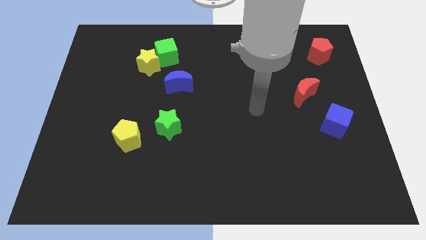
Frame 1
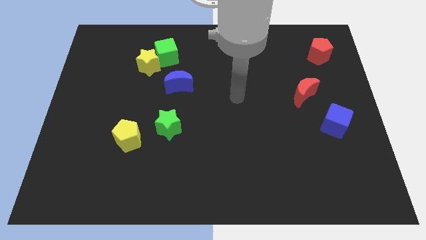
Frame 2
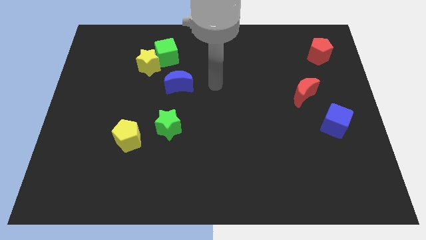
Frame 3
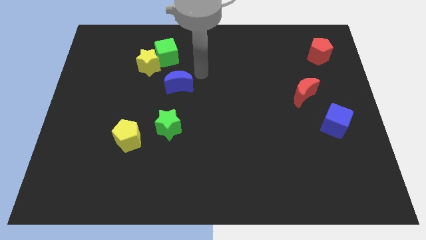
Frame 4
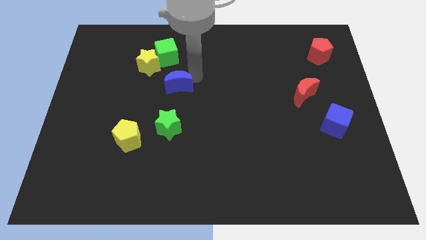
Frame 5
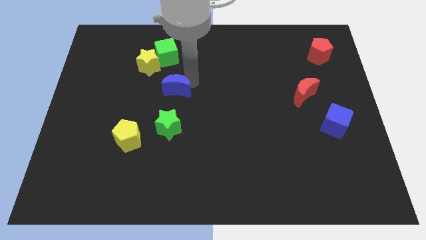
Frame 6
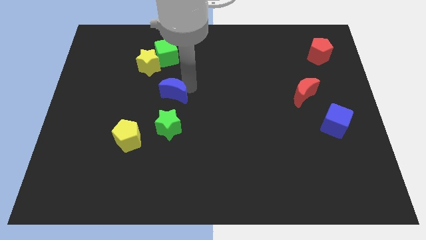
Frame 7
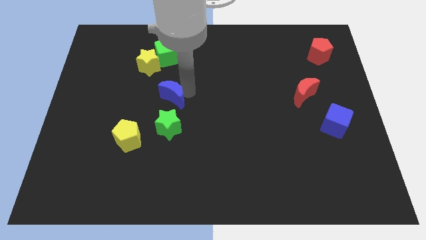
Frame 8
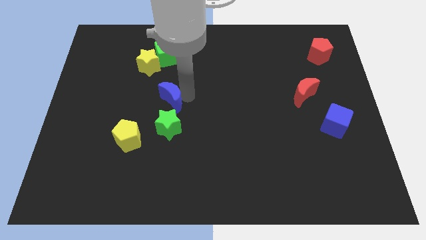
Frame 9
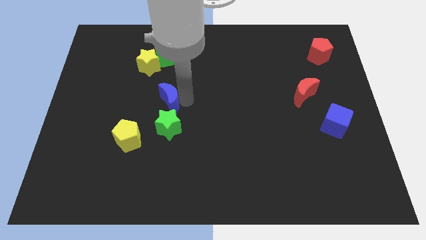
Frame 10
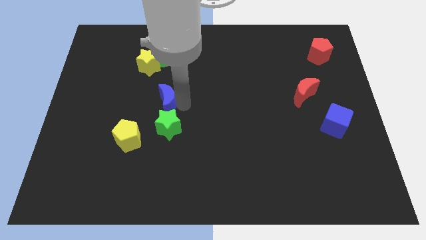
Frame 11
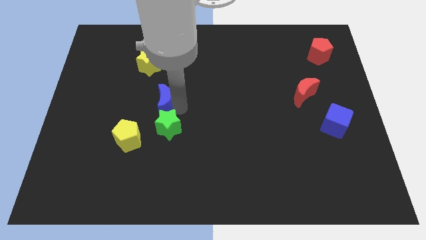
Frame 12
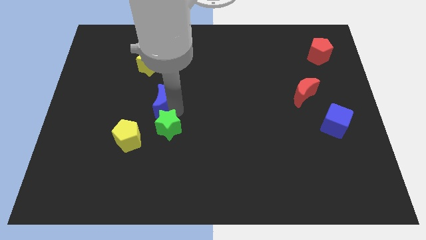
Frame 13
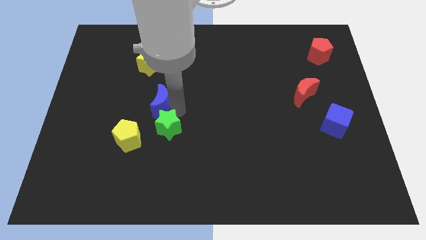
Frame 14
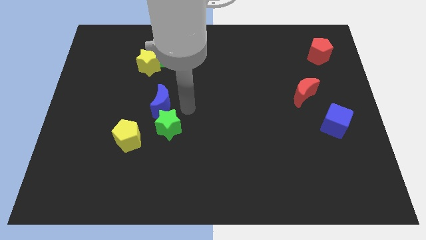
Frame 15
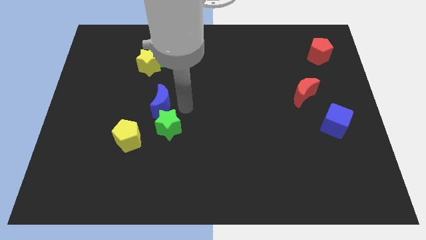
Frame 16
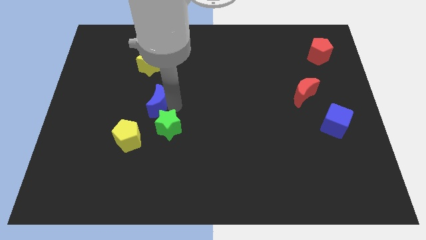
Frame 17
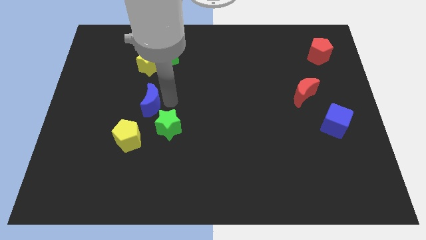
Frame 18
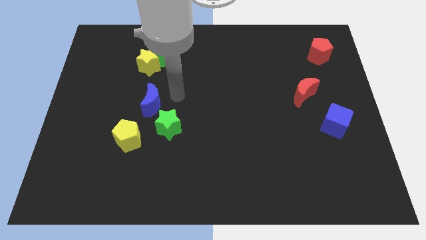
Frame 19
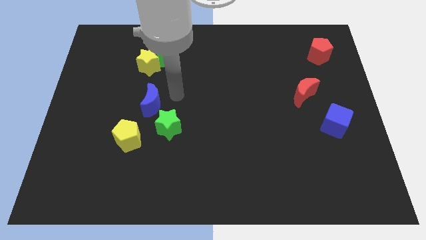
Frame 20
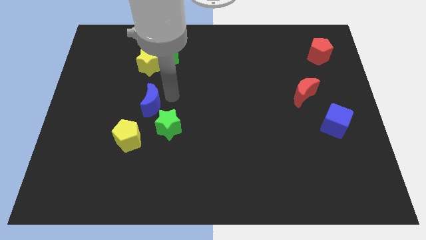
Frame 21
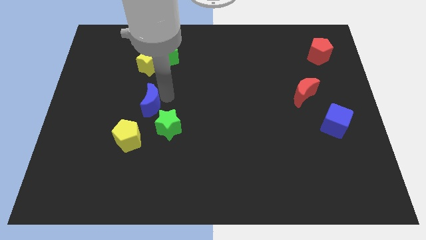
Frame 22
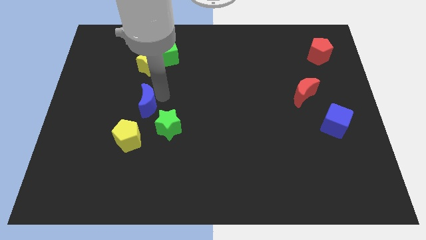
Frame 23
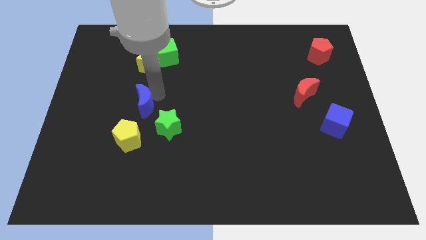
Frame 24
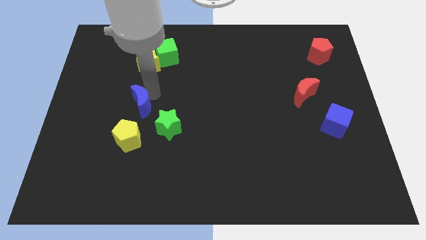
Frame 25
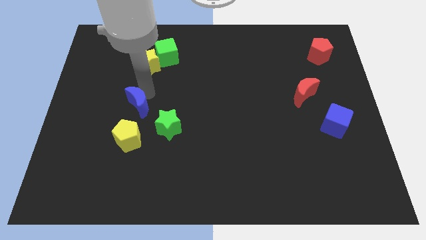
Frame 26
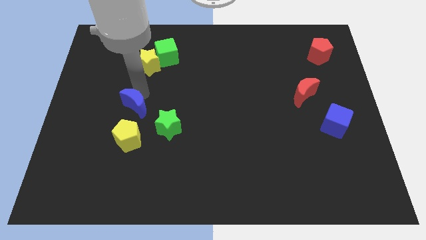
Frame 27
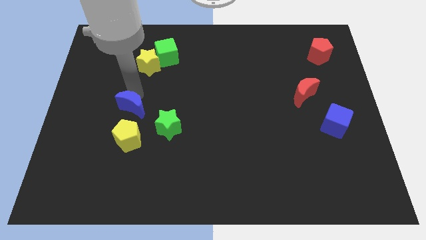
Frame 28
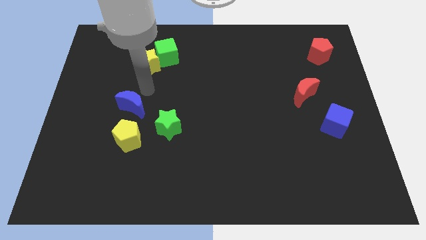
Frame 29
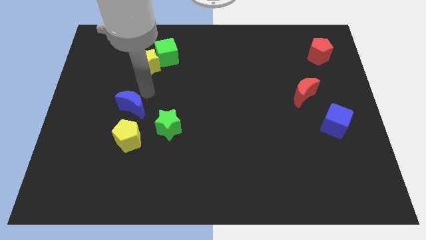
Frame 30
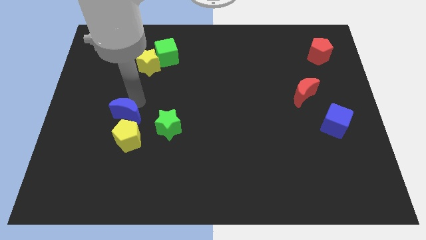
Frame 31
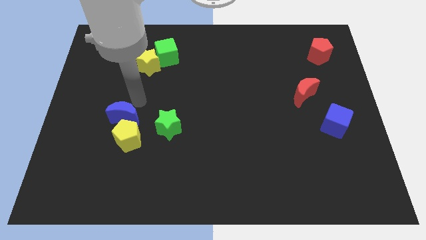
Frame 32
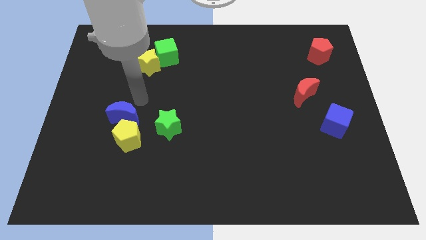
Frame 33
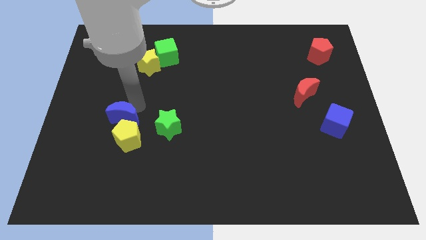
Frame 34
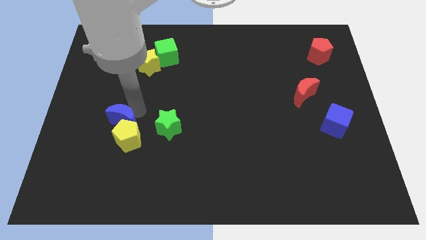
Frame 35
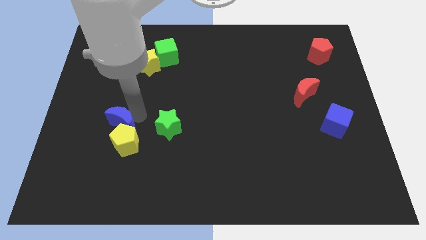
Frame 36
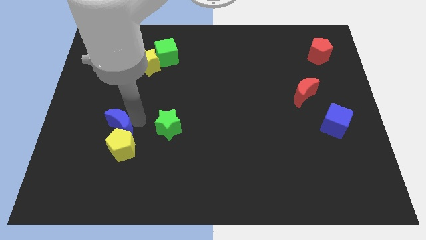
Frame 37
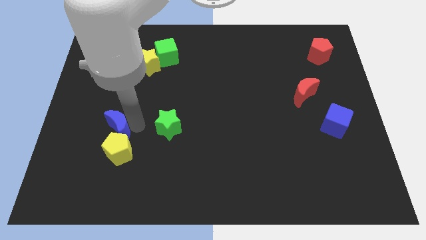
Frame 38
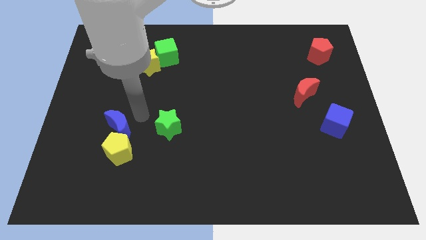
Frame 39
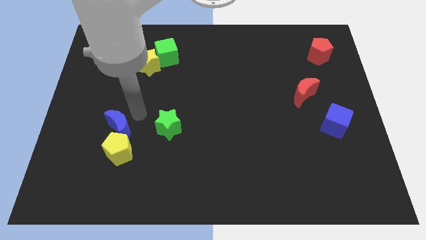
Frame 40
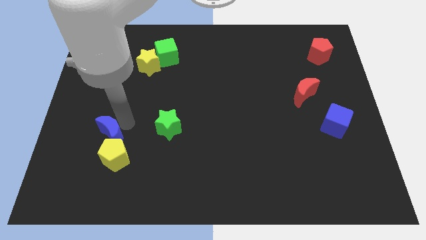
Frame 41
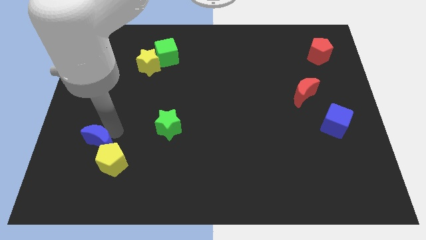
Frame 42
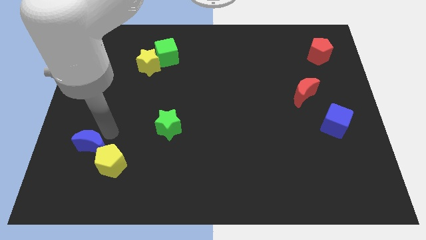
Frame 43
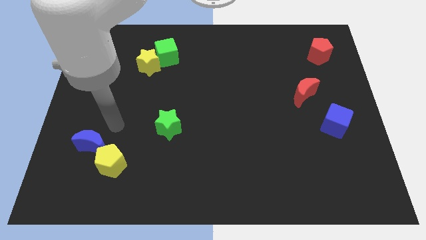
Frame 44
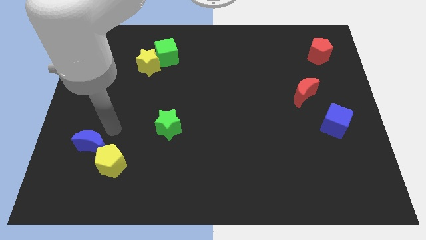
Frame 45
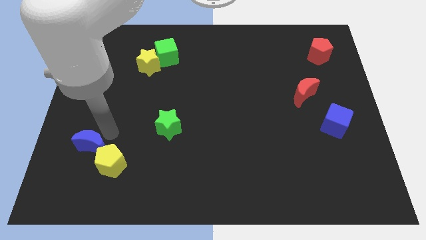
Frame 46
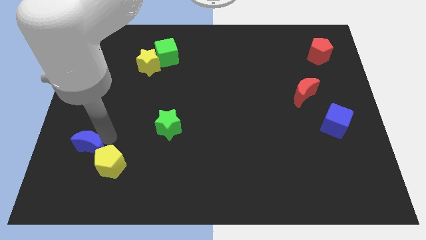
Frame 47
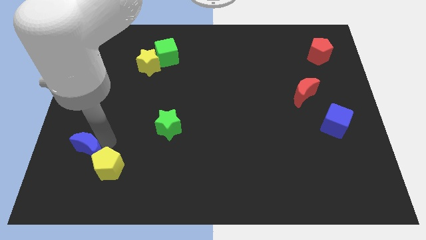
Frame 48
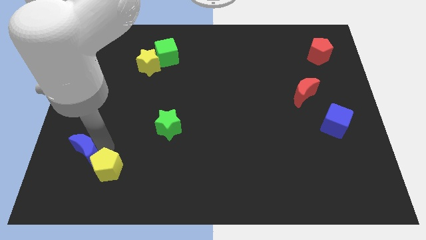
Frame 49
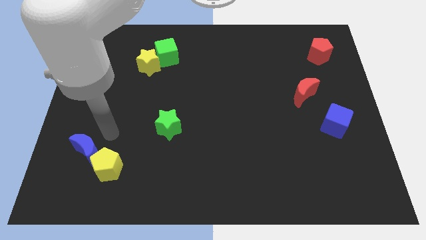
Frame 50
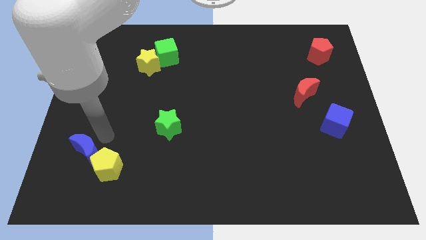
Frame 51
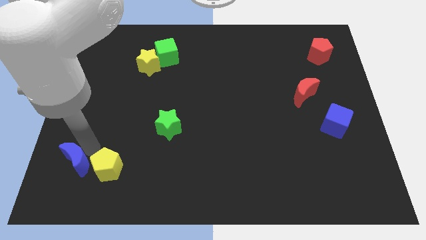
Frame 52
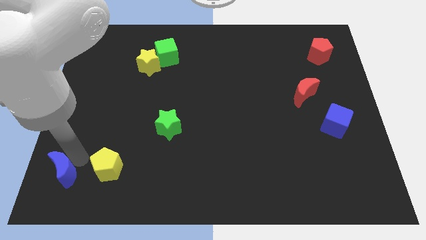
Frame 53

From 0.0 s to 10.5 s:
move the blue moon to the bottom left

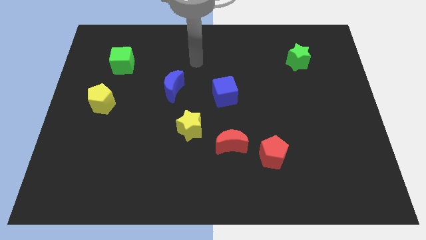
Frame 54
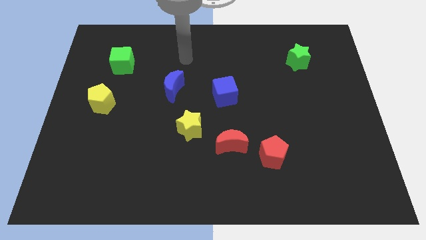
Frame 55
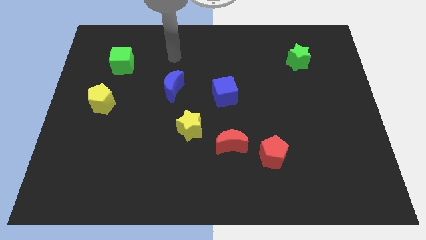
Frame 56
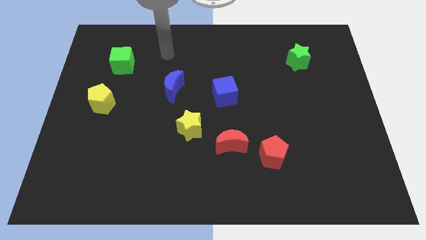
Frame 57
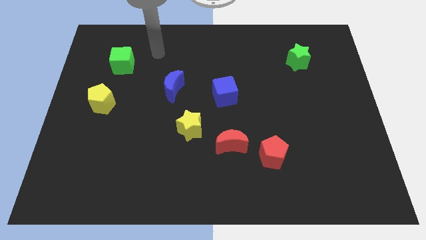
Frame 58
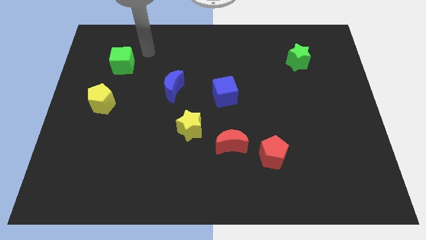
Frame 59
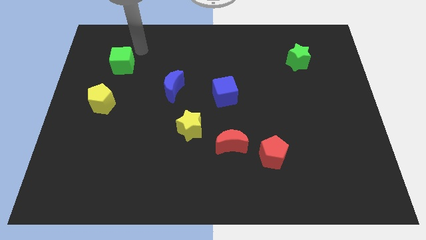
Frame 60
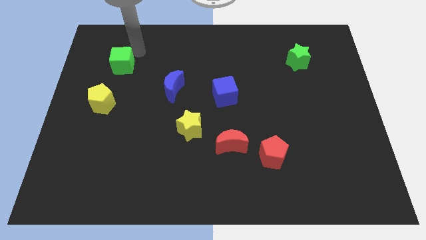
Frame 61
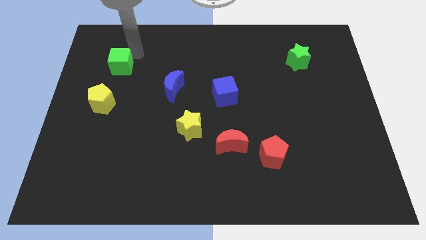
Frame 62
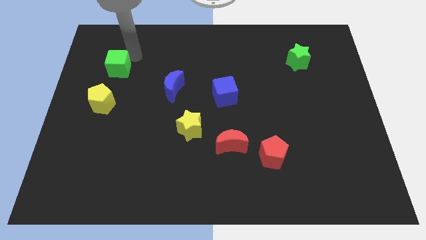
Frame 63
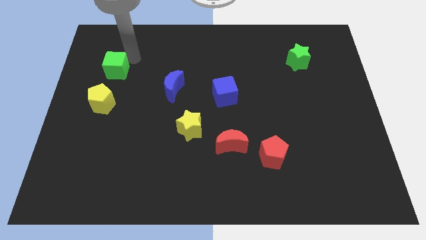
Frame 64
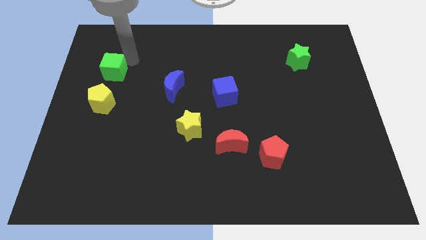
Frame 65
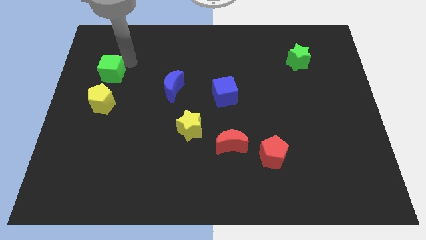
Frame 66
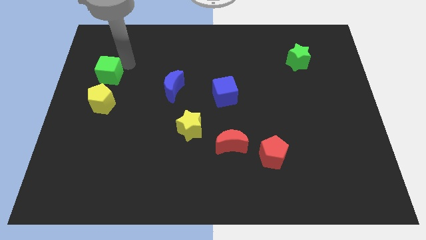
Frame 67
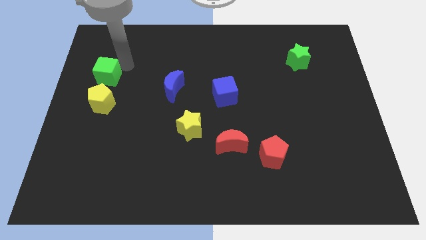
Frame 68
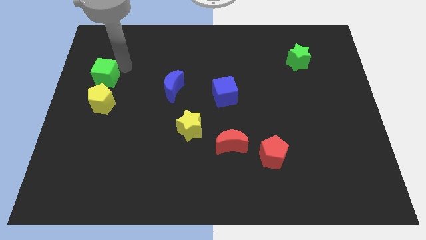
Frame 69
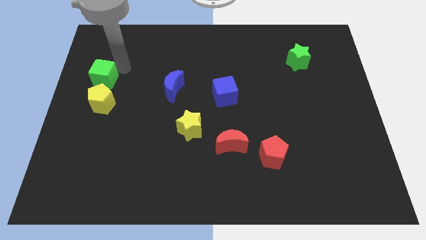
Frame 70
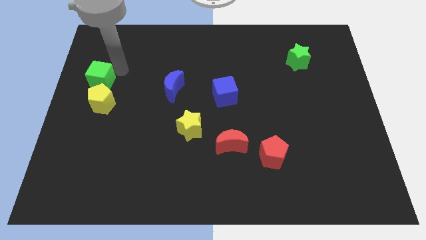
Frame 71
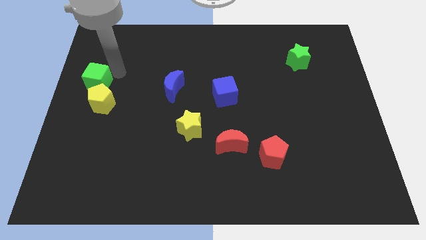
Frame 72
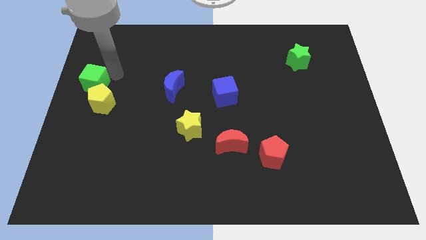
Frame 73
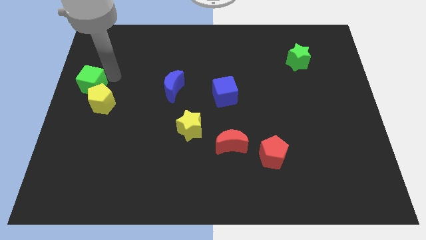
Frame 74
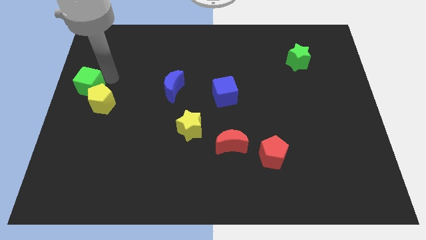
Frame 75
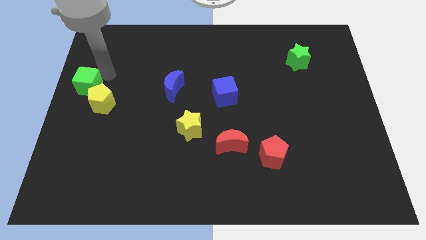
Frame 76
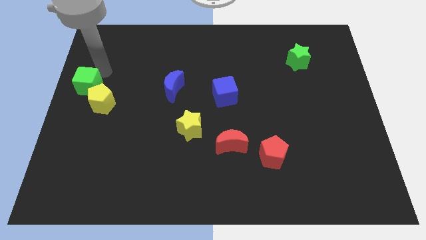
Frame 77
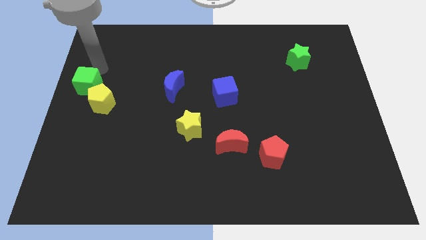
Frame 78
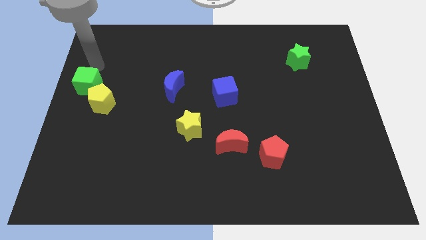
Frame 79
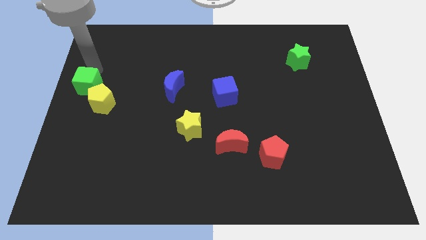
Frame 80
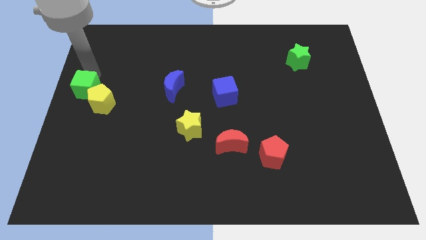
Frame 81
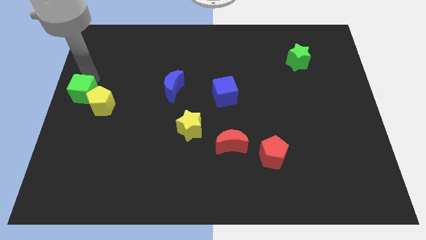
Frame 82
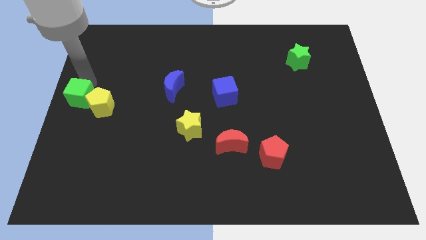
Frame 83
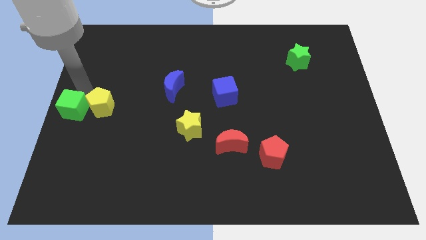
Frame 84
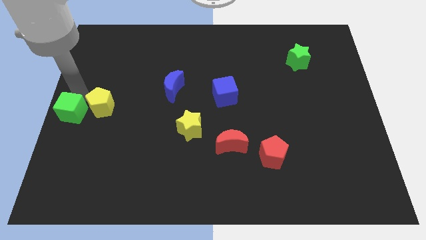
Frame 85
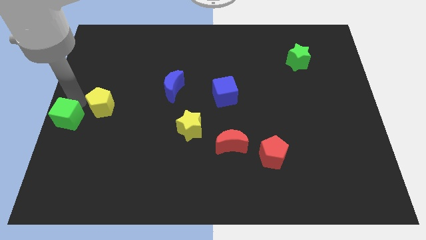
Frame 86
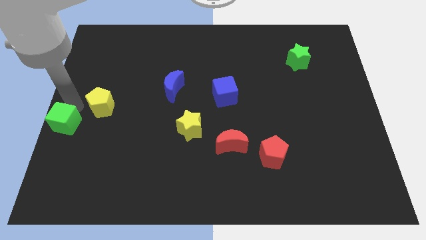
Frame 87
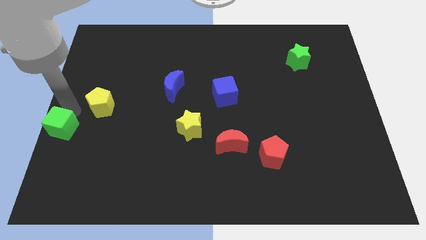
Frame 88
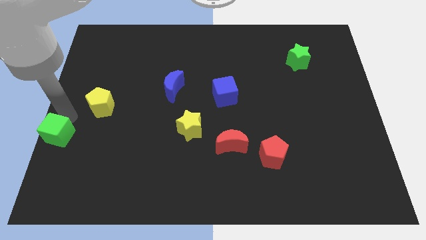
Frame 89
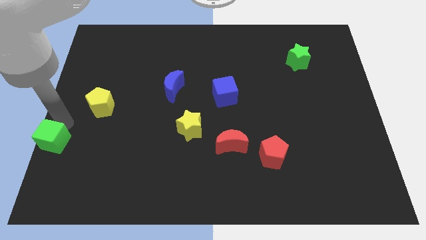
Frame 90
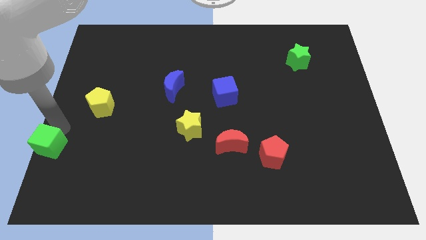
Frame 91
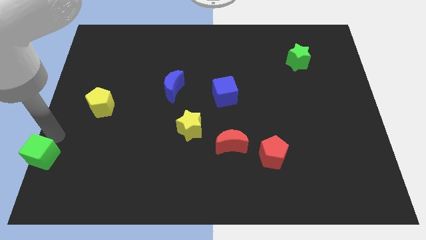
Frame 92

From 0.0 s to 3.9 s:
move the green cube to the bottom left of the board
